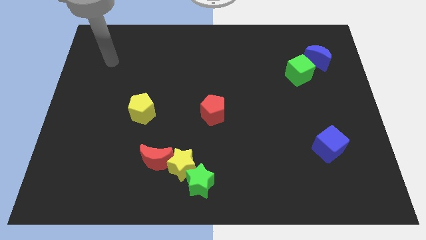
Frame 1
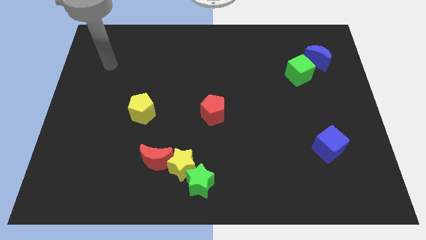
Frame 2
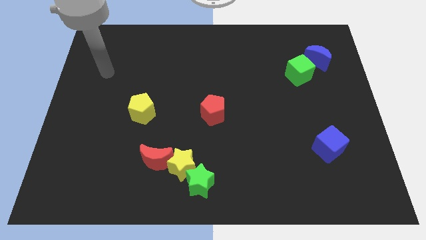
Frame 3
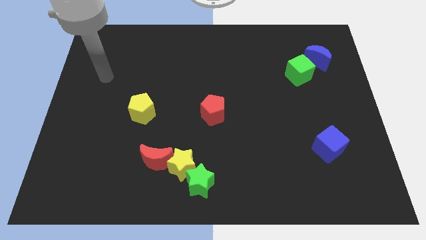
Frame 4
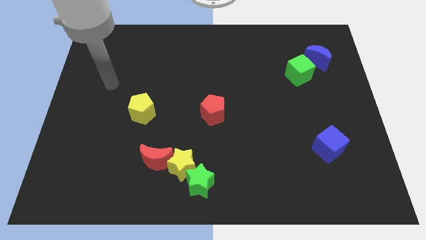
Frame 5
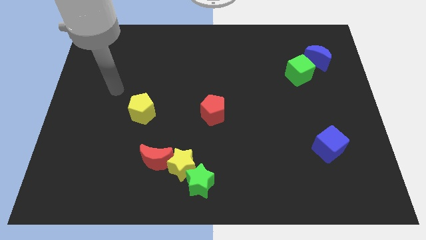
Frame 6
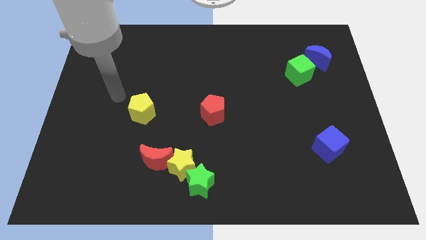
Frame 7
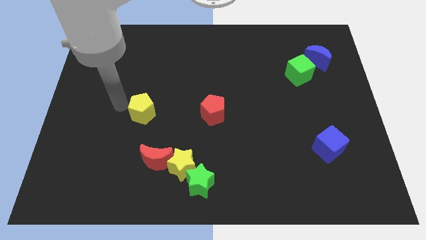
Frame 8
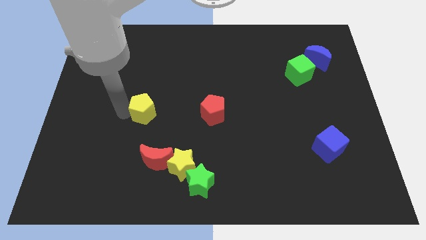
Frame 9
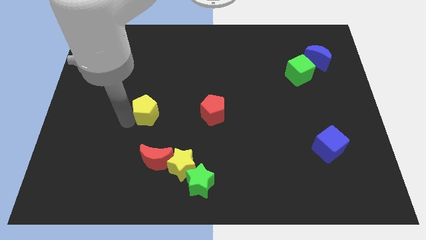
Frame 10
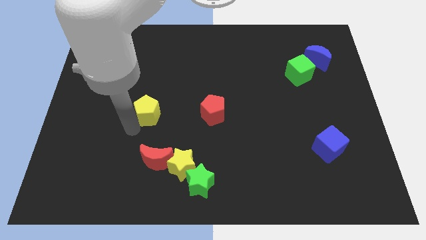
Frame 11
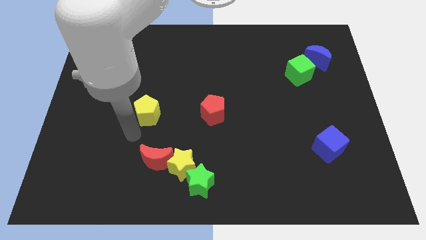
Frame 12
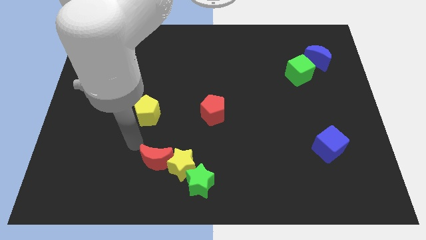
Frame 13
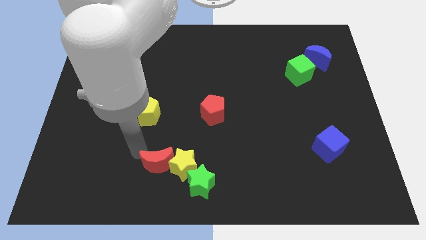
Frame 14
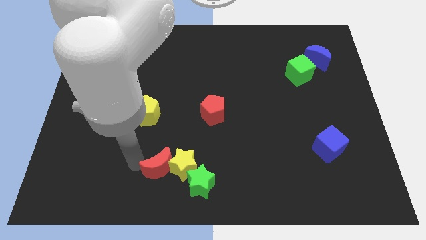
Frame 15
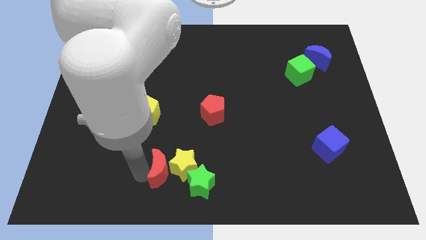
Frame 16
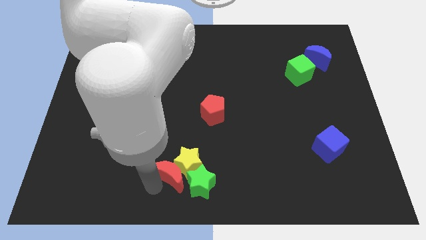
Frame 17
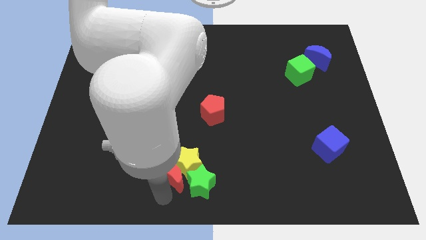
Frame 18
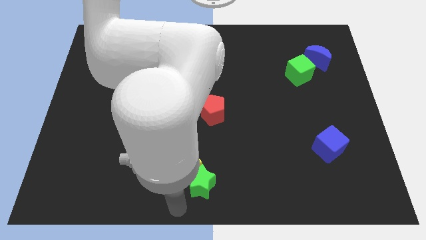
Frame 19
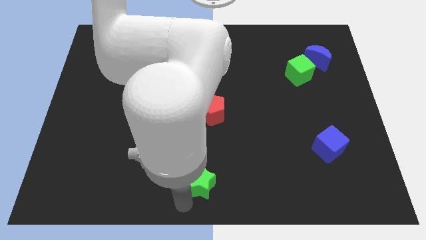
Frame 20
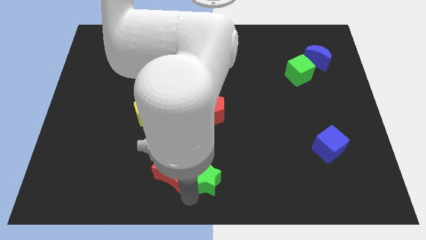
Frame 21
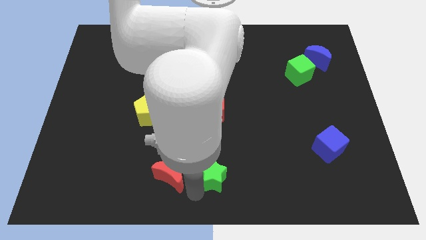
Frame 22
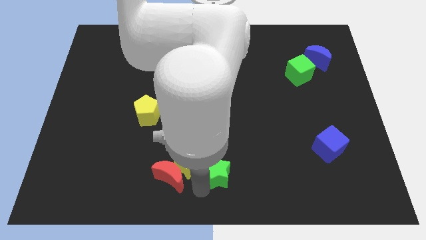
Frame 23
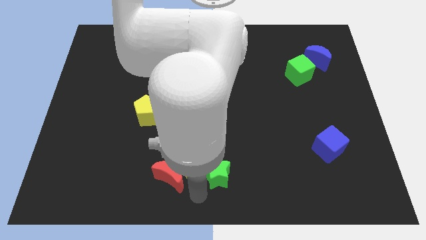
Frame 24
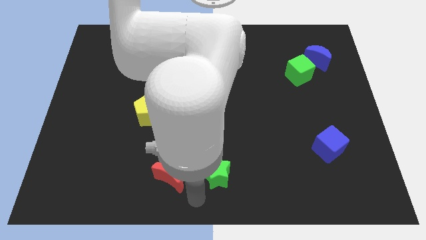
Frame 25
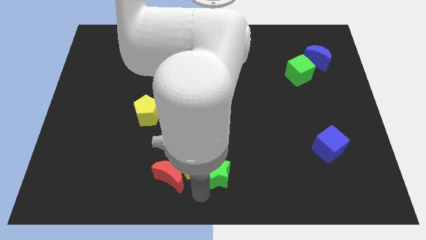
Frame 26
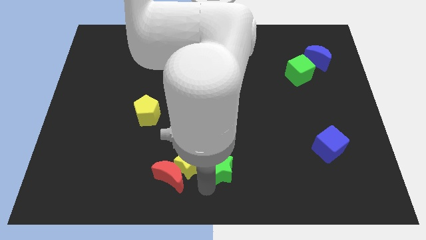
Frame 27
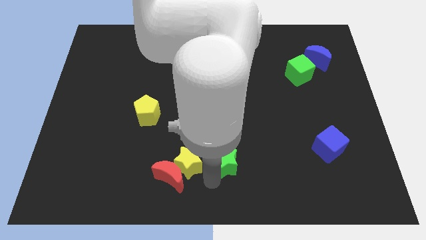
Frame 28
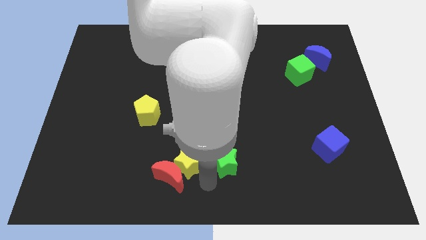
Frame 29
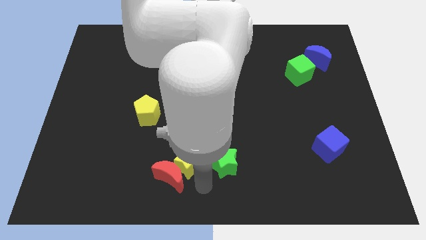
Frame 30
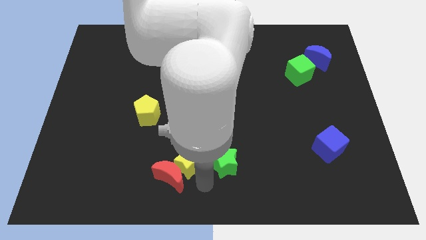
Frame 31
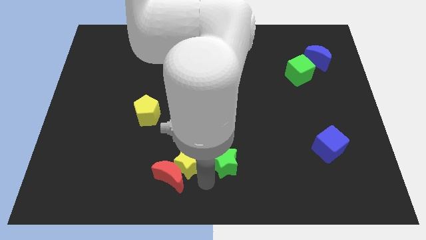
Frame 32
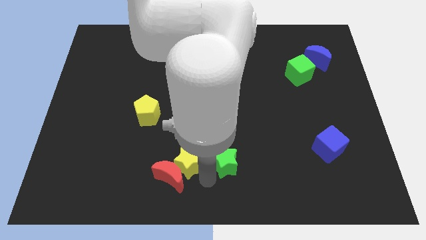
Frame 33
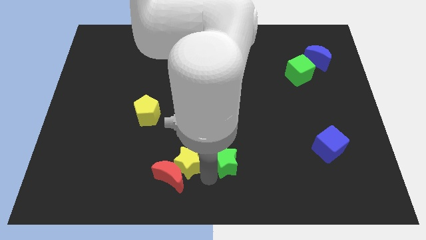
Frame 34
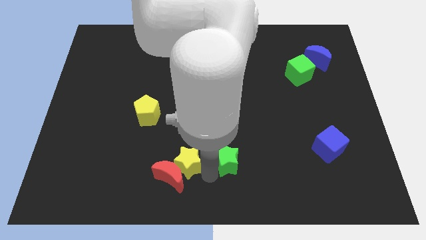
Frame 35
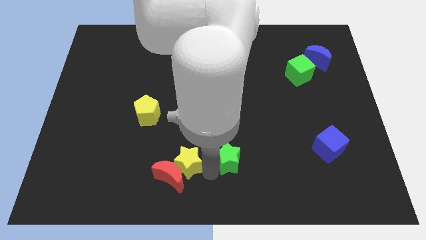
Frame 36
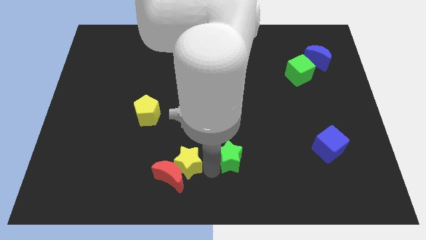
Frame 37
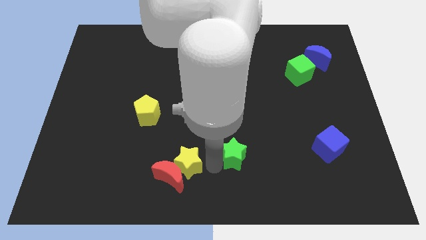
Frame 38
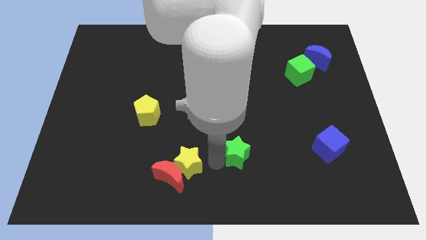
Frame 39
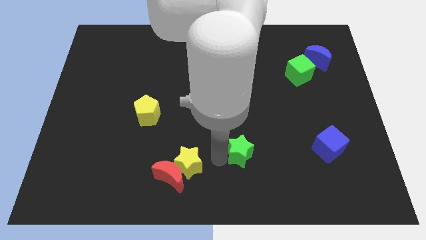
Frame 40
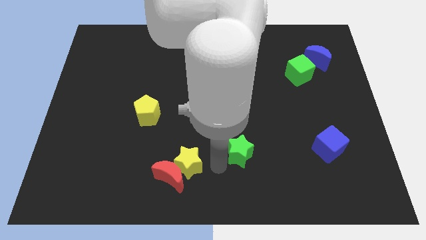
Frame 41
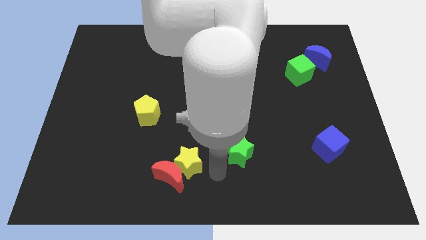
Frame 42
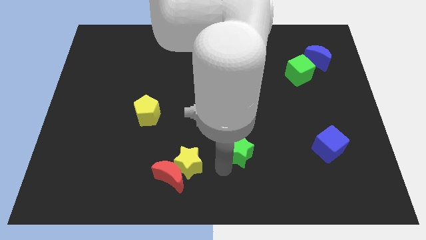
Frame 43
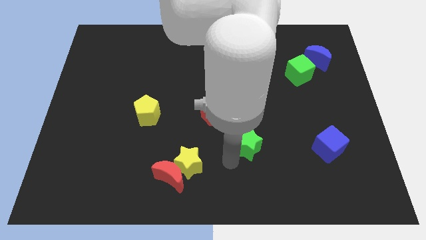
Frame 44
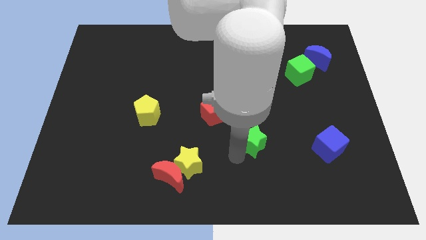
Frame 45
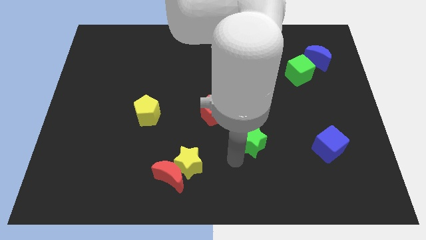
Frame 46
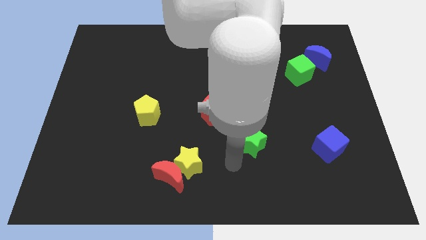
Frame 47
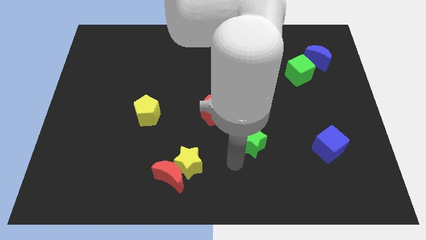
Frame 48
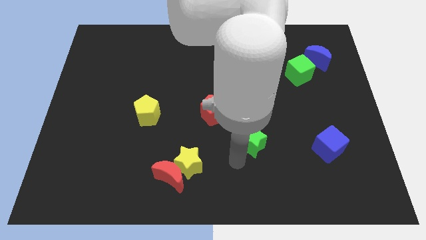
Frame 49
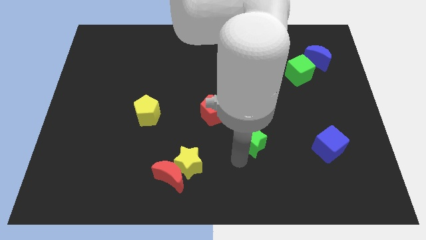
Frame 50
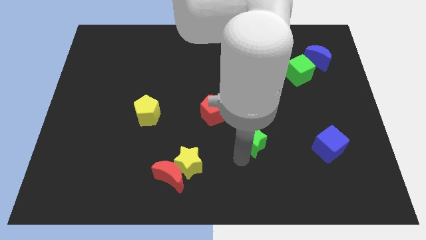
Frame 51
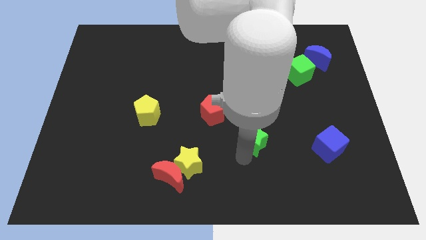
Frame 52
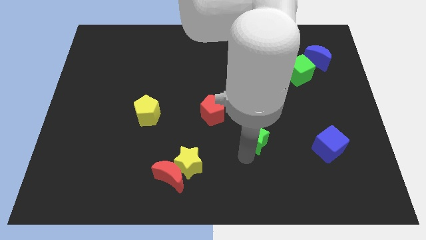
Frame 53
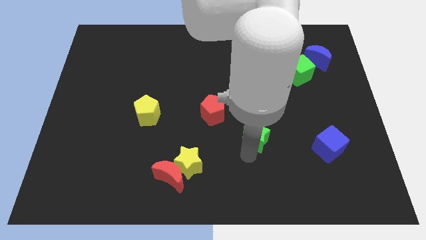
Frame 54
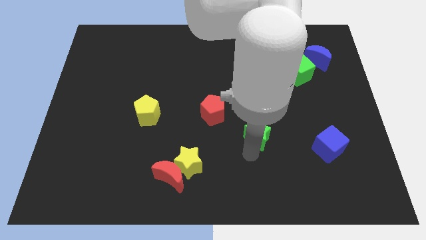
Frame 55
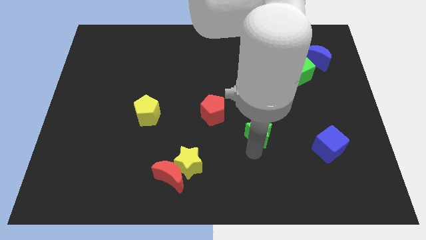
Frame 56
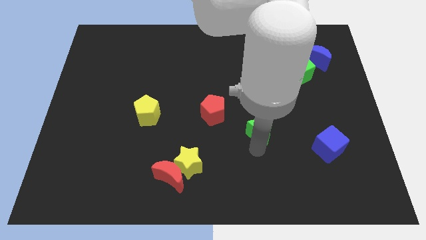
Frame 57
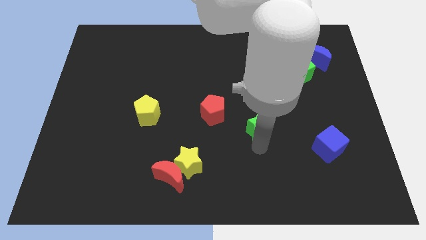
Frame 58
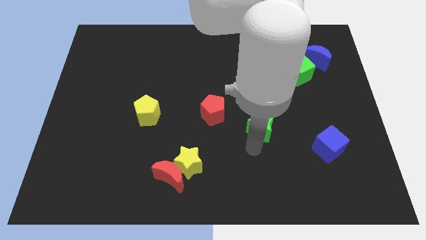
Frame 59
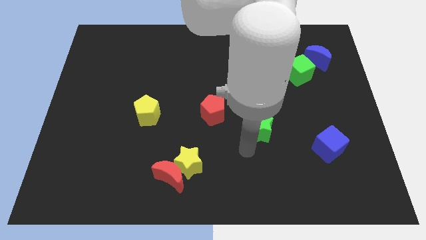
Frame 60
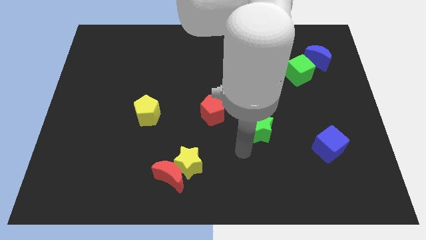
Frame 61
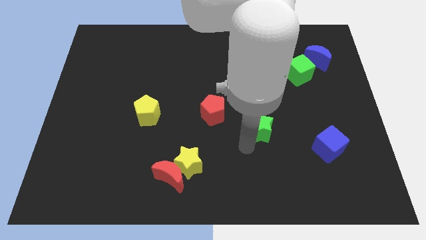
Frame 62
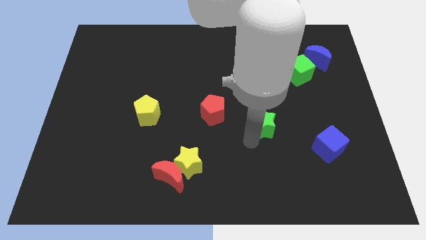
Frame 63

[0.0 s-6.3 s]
move the green star up and to the right diagonally

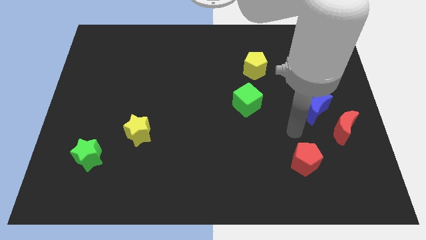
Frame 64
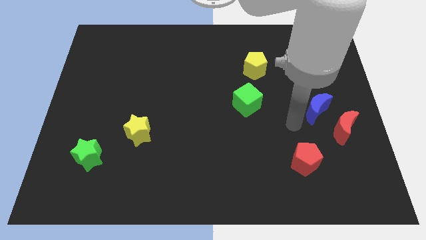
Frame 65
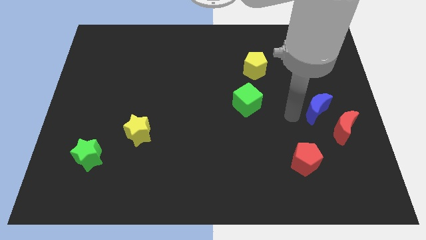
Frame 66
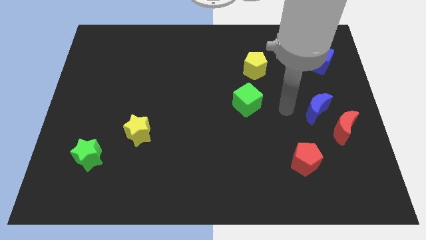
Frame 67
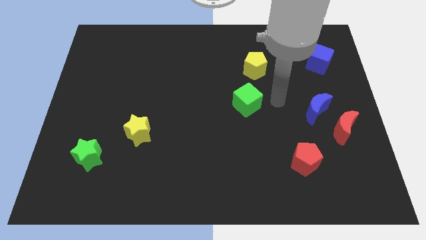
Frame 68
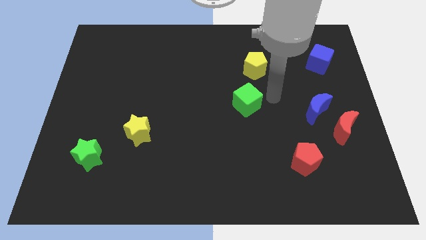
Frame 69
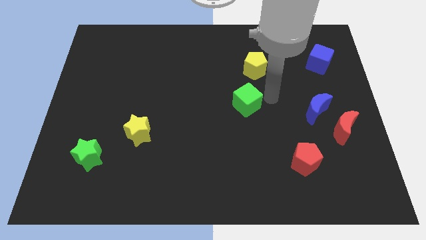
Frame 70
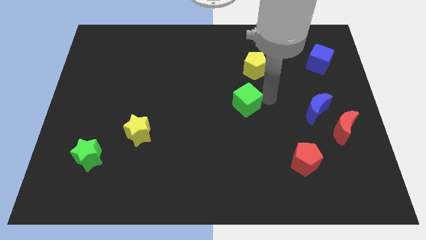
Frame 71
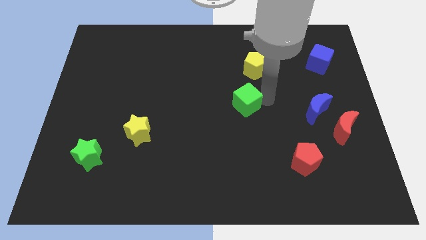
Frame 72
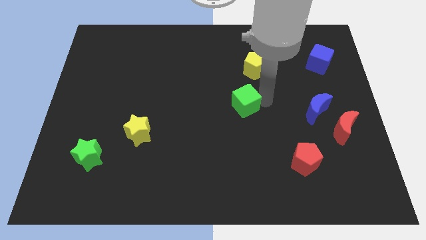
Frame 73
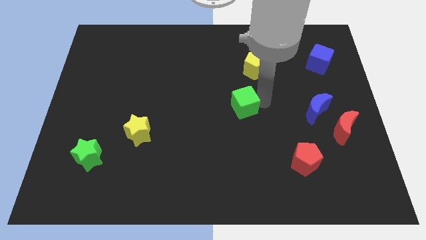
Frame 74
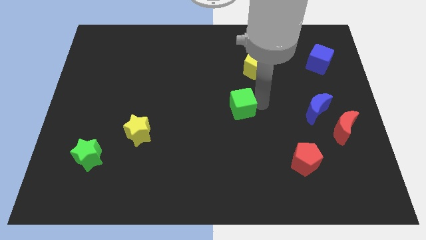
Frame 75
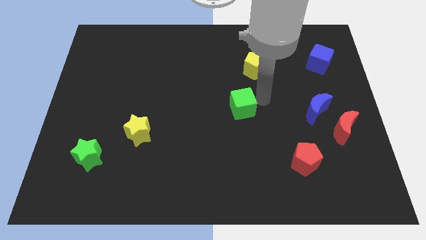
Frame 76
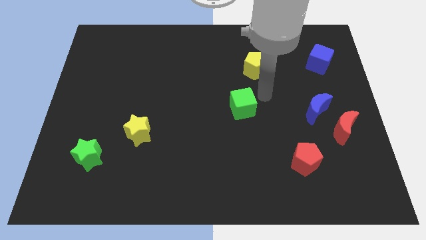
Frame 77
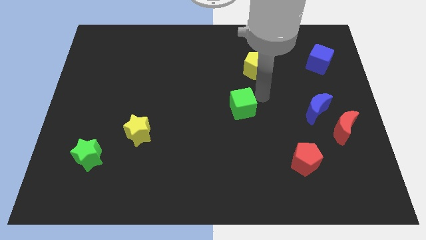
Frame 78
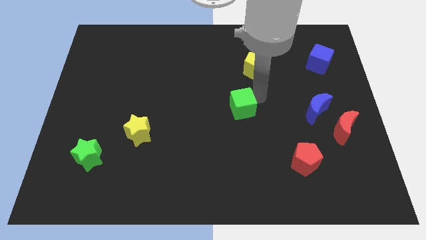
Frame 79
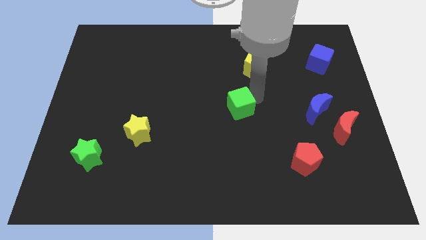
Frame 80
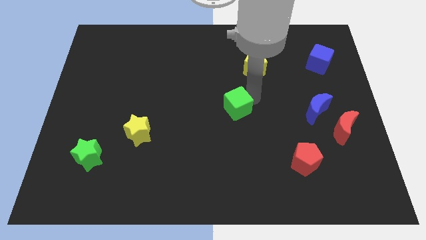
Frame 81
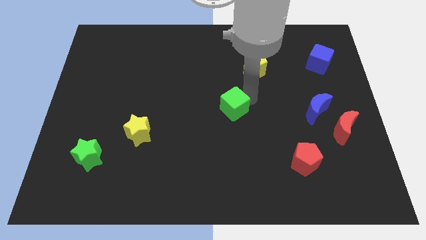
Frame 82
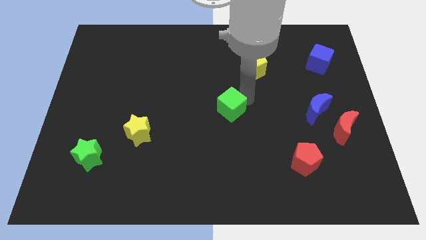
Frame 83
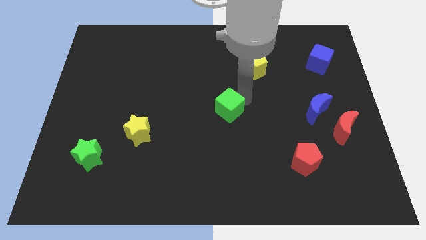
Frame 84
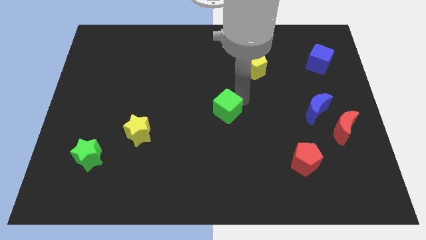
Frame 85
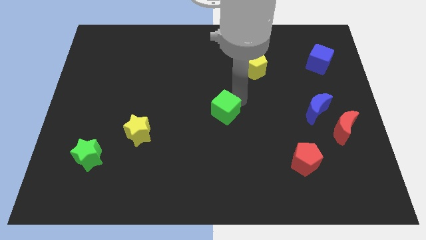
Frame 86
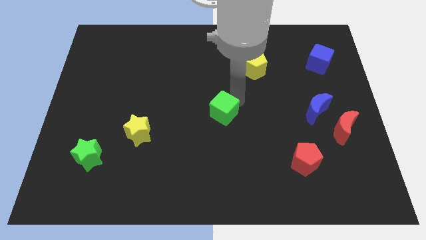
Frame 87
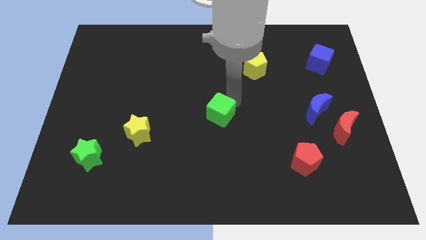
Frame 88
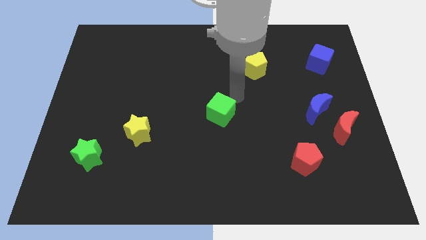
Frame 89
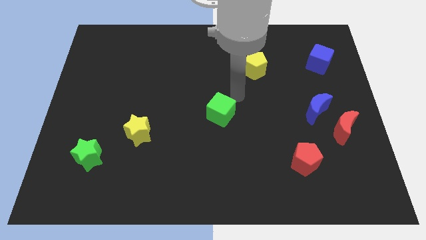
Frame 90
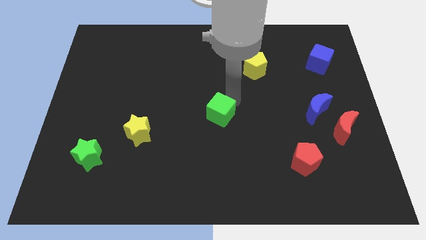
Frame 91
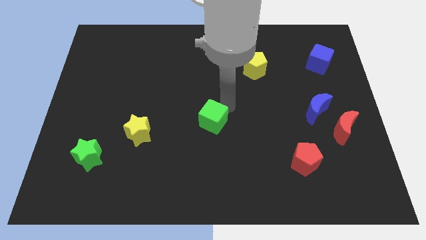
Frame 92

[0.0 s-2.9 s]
move the green cube a little bit down and then left
